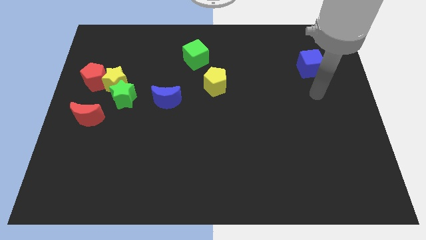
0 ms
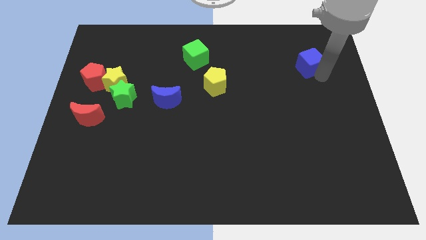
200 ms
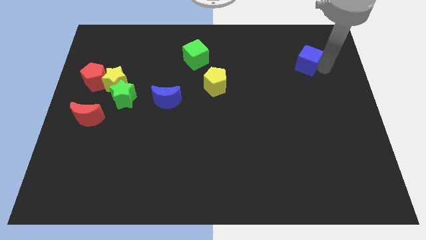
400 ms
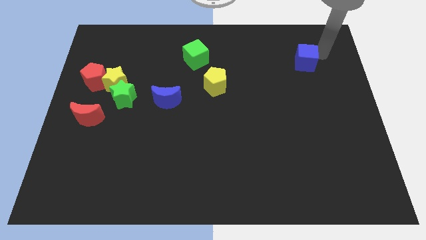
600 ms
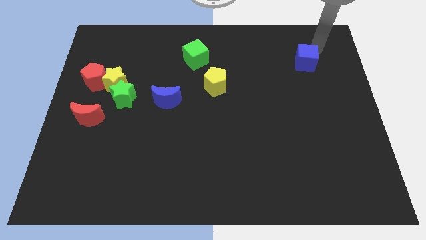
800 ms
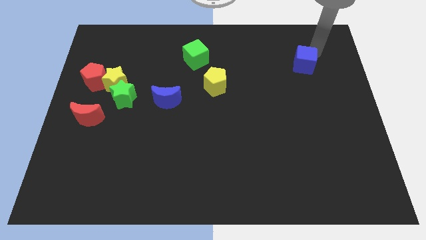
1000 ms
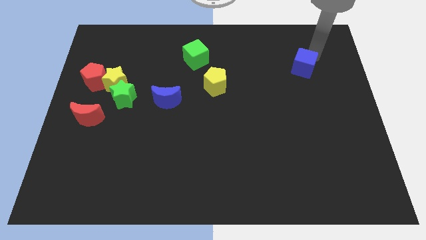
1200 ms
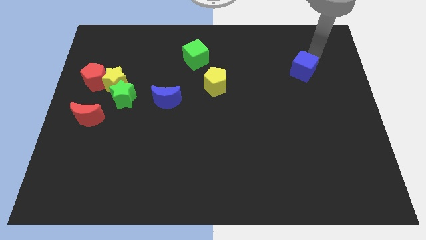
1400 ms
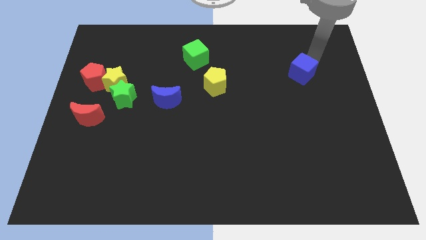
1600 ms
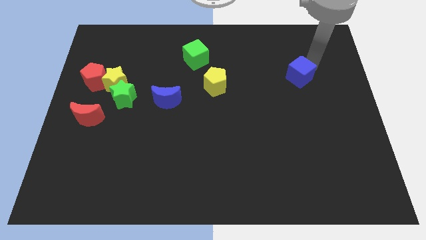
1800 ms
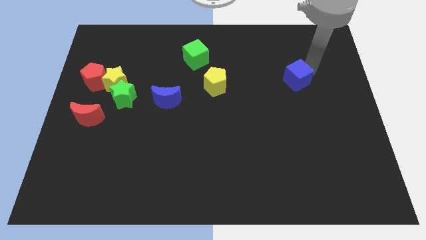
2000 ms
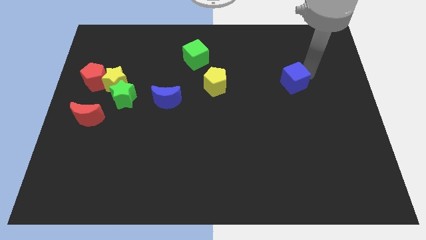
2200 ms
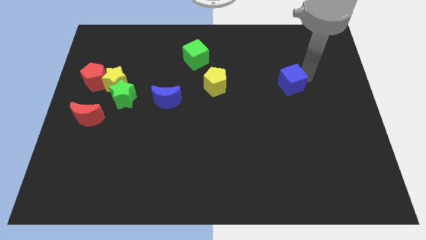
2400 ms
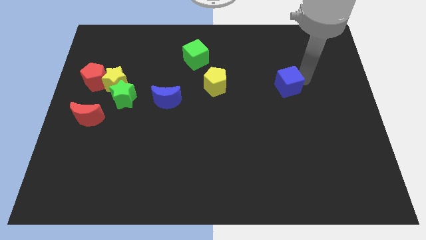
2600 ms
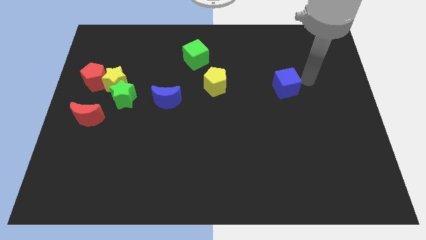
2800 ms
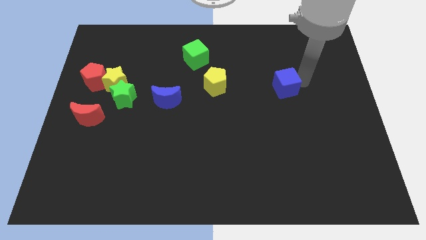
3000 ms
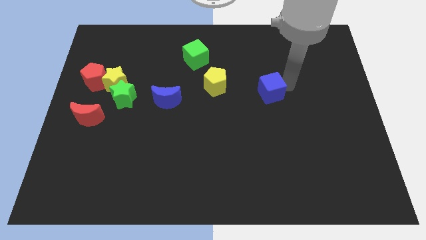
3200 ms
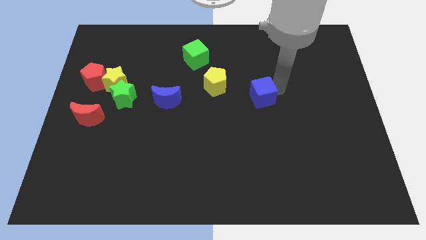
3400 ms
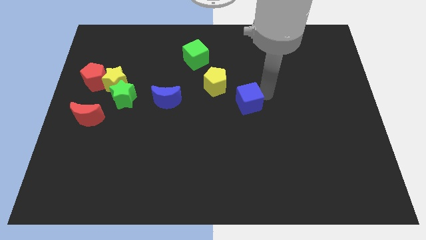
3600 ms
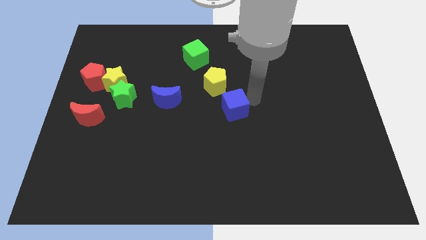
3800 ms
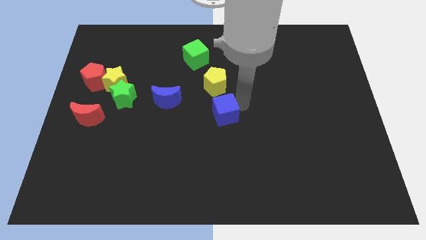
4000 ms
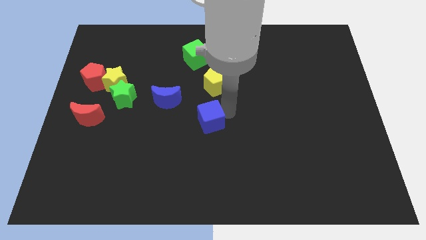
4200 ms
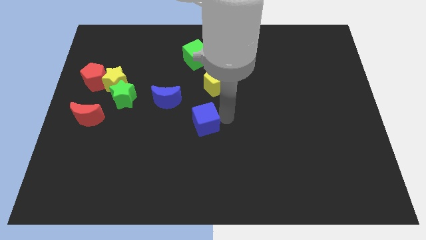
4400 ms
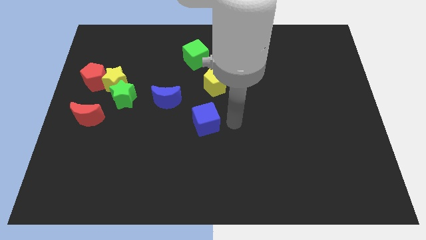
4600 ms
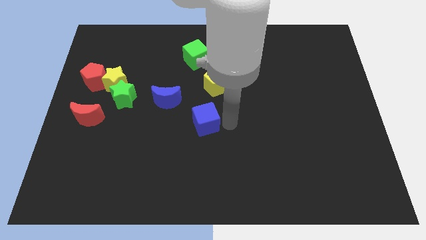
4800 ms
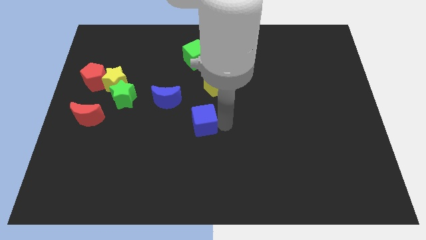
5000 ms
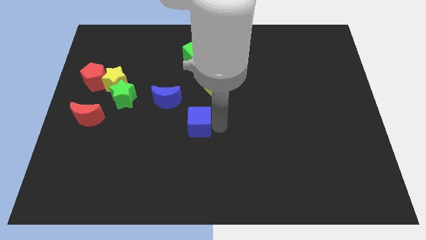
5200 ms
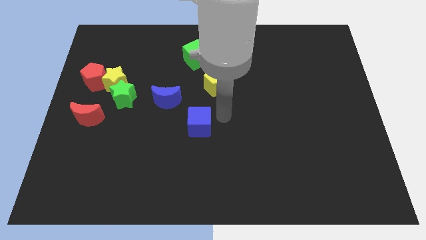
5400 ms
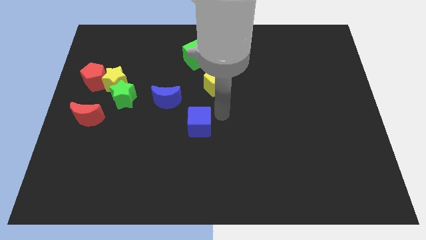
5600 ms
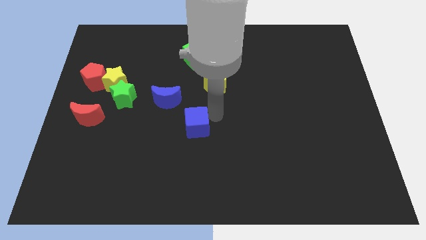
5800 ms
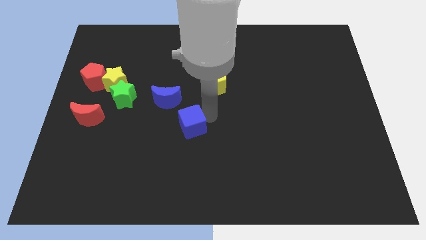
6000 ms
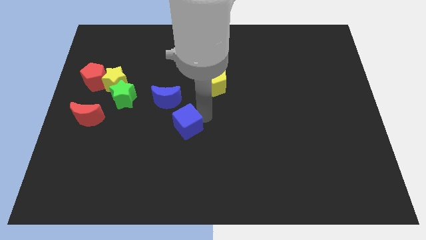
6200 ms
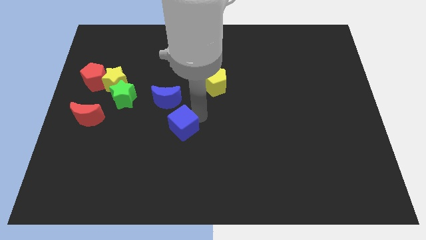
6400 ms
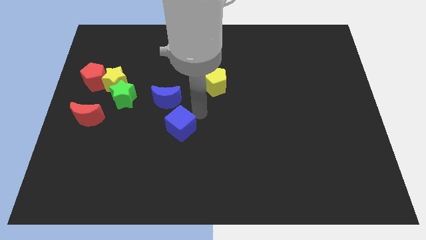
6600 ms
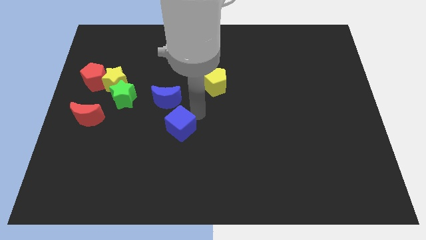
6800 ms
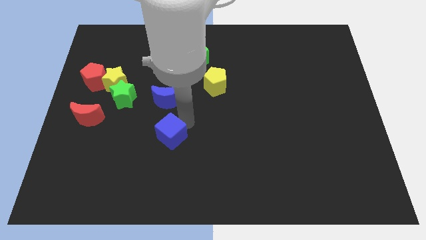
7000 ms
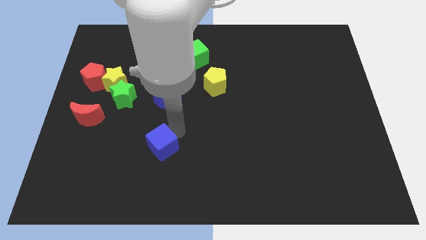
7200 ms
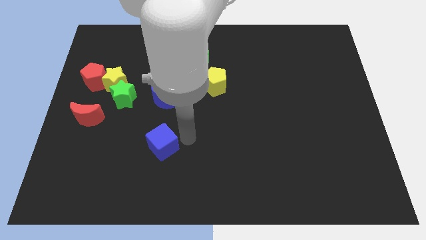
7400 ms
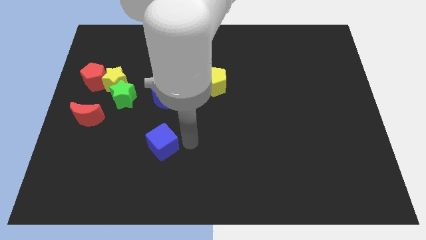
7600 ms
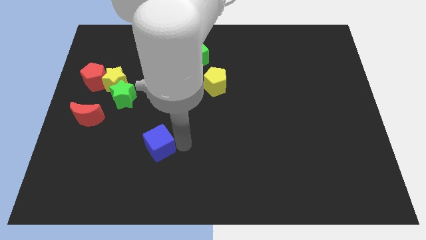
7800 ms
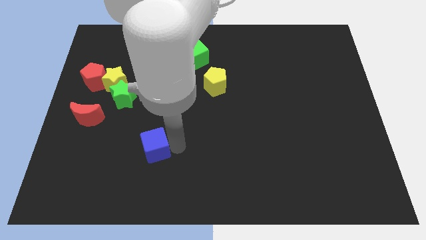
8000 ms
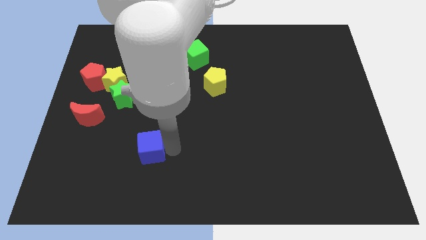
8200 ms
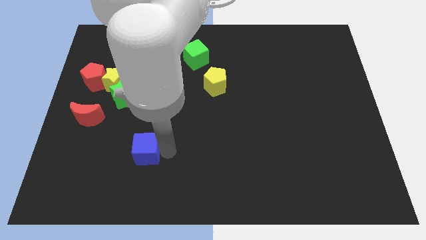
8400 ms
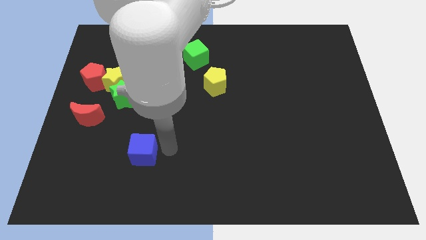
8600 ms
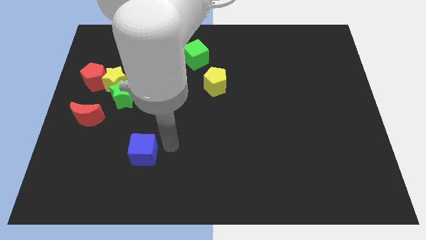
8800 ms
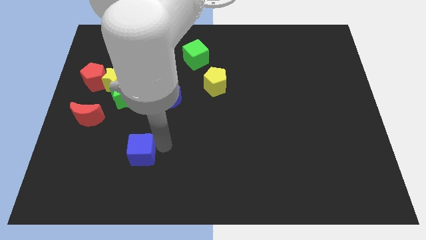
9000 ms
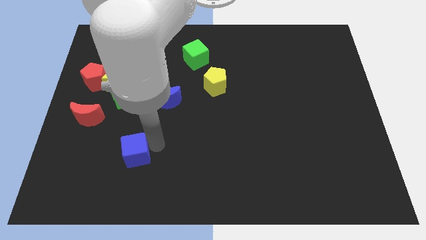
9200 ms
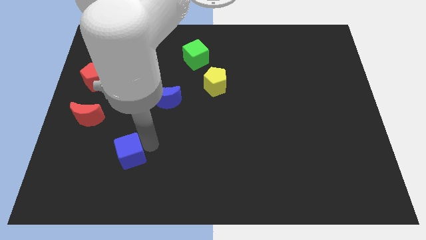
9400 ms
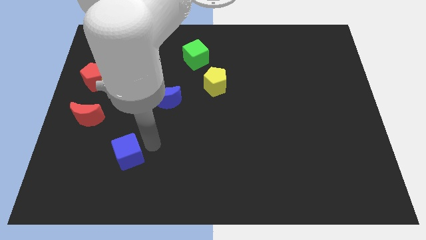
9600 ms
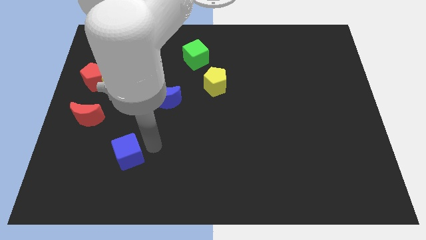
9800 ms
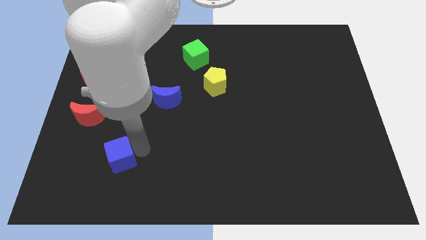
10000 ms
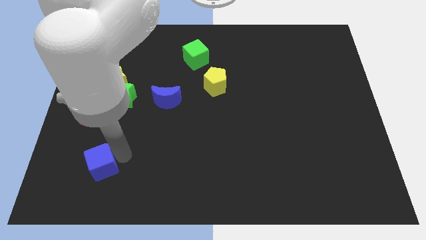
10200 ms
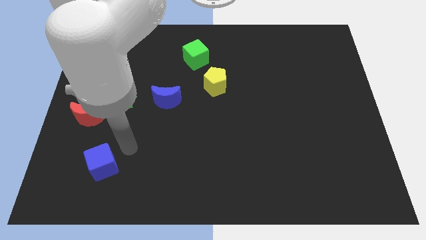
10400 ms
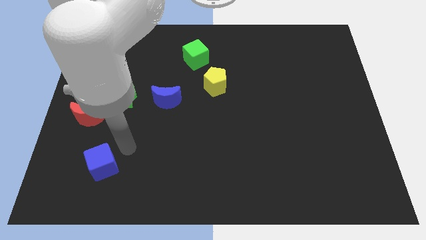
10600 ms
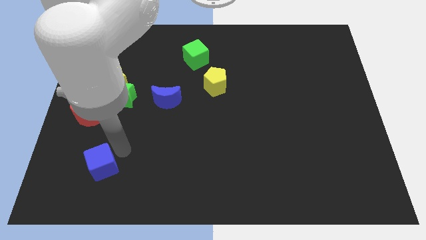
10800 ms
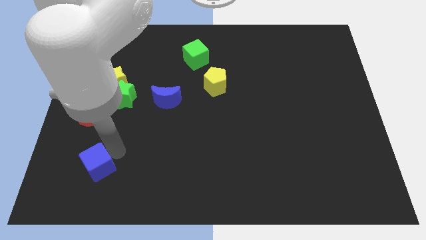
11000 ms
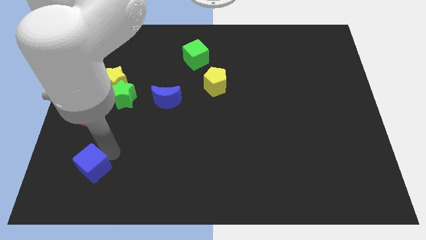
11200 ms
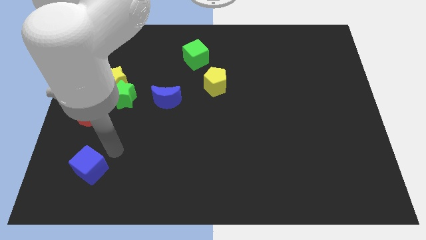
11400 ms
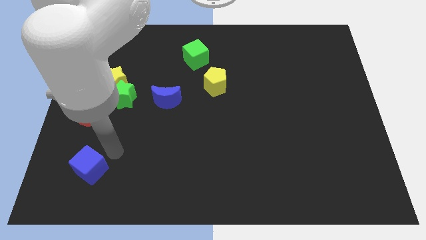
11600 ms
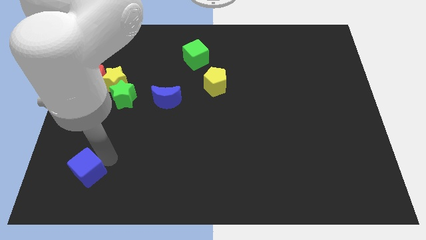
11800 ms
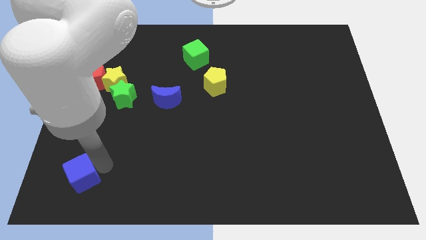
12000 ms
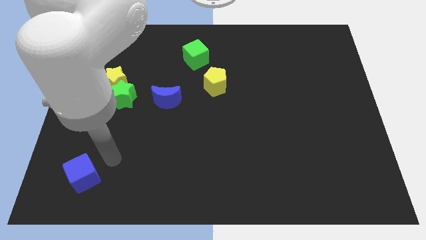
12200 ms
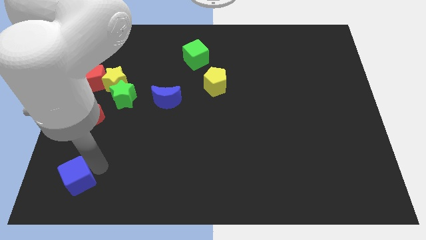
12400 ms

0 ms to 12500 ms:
slide the blue cube to the lower left corner

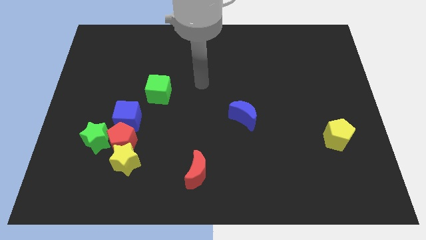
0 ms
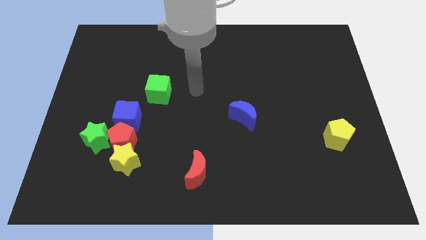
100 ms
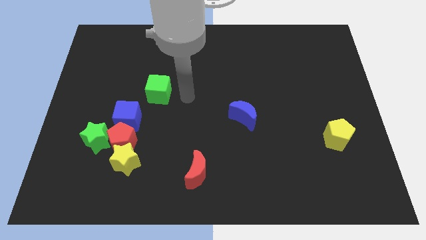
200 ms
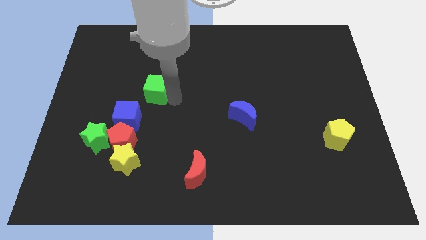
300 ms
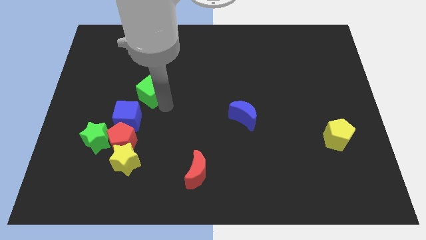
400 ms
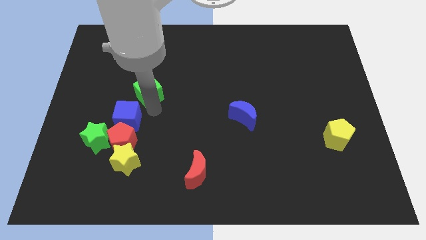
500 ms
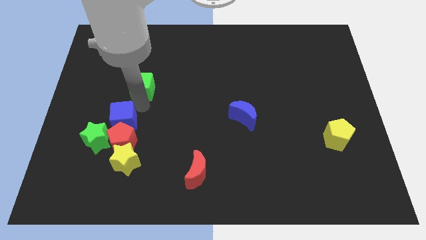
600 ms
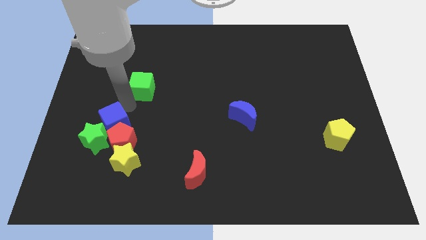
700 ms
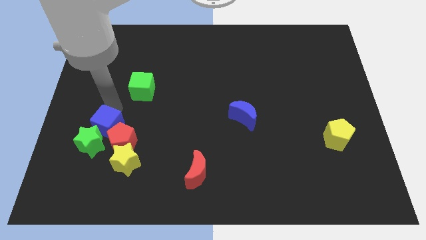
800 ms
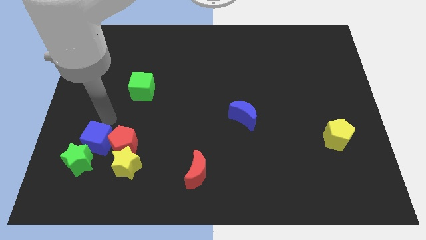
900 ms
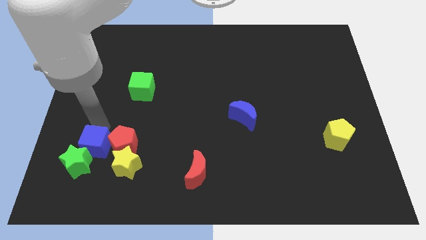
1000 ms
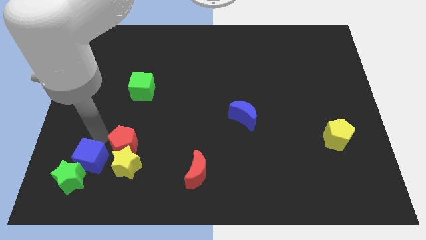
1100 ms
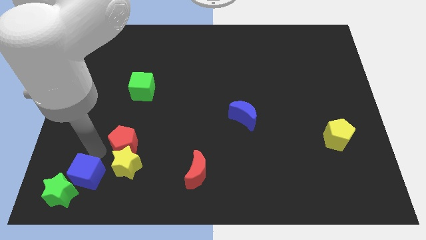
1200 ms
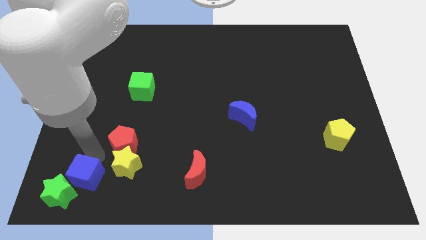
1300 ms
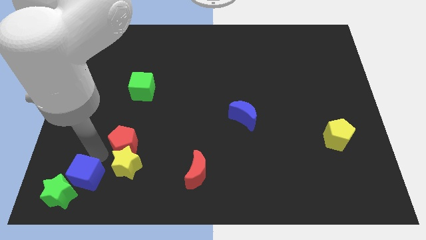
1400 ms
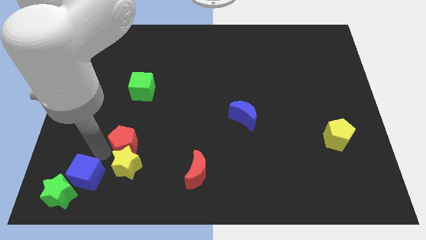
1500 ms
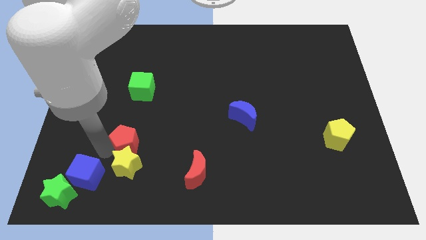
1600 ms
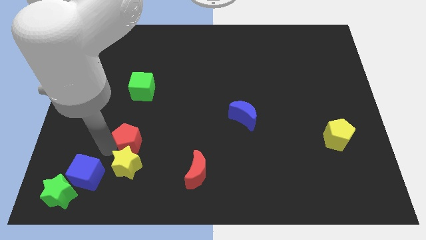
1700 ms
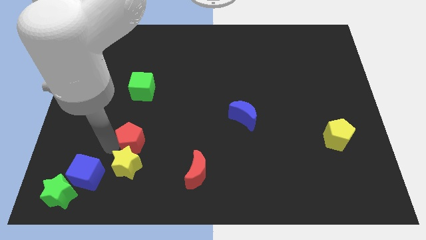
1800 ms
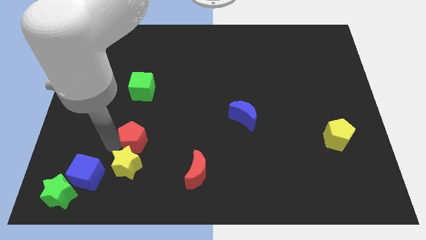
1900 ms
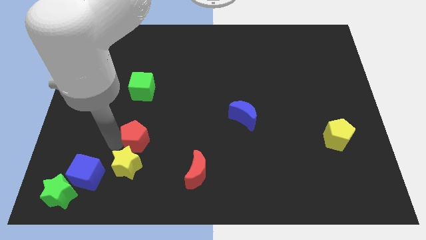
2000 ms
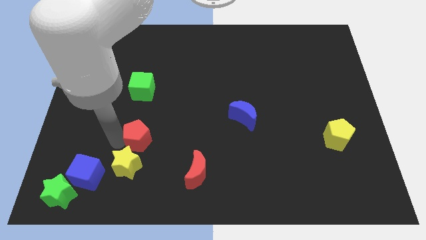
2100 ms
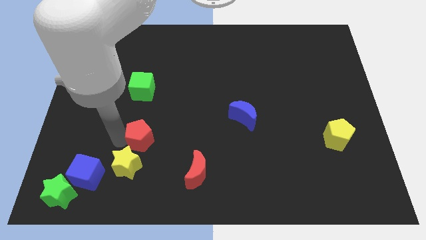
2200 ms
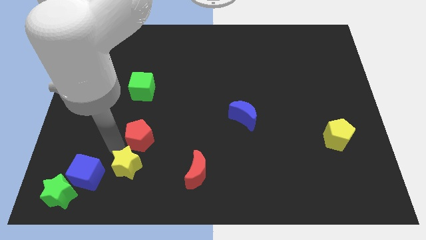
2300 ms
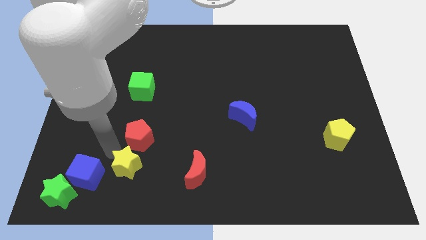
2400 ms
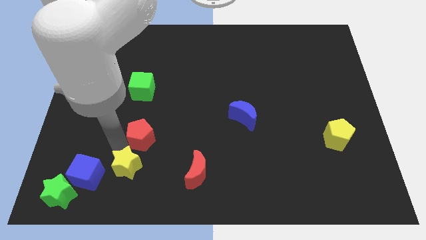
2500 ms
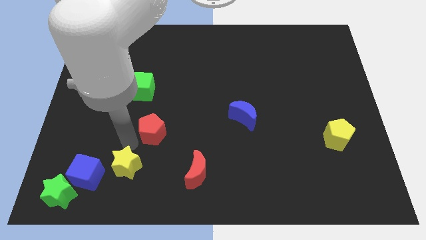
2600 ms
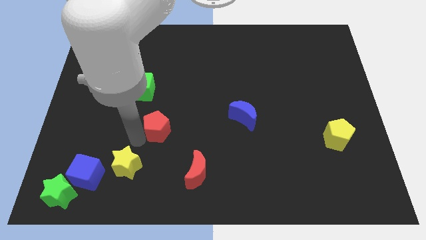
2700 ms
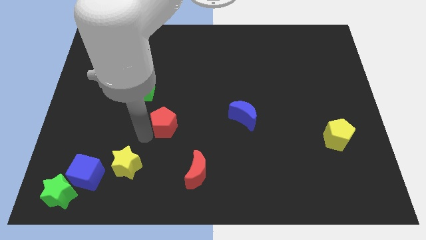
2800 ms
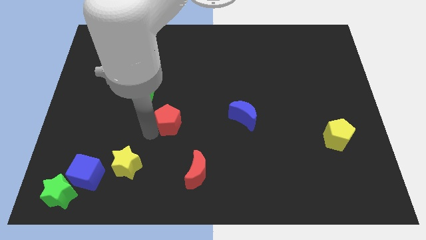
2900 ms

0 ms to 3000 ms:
slide the red pentagon to the middle
